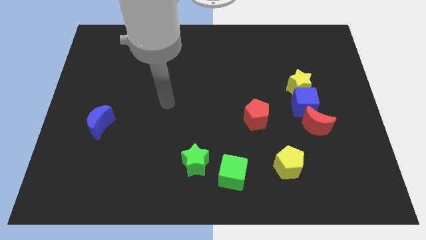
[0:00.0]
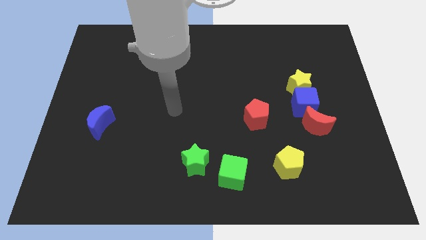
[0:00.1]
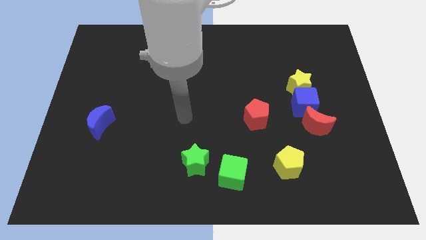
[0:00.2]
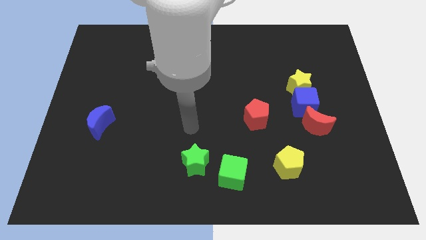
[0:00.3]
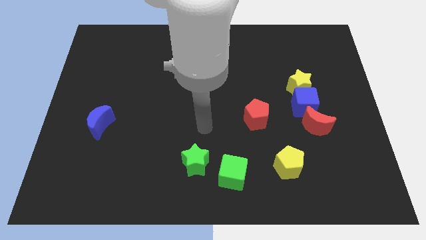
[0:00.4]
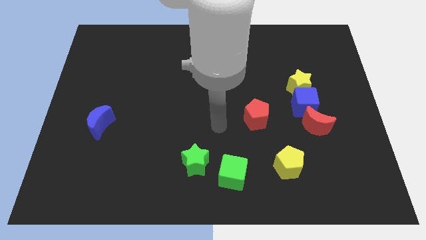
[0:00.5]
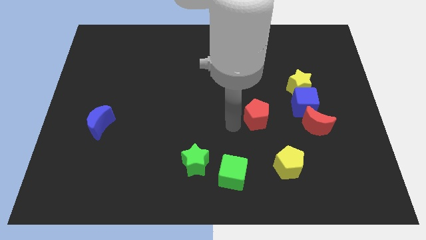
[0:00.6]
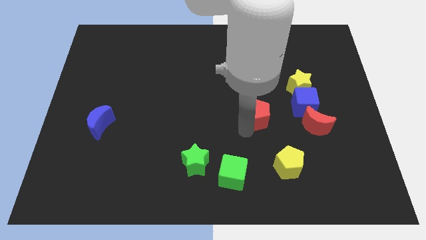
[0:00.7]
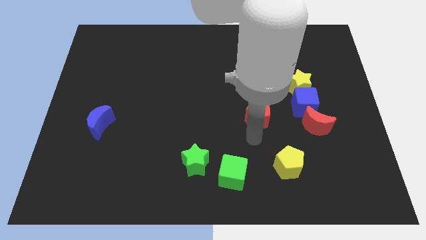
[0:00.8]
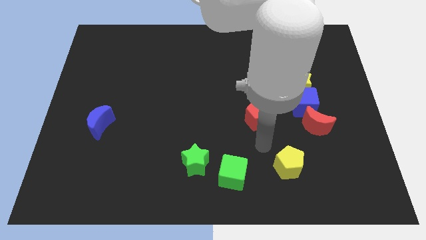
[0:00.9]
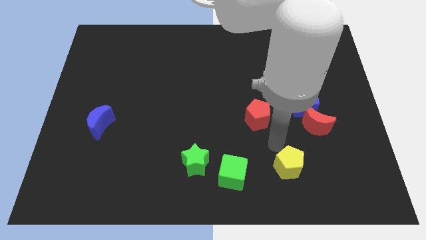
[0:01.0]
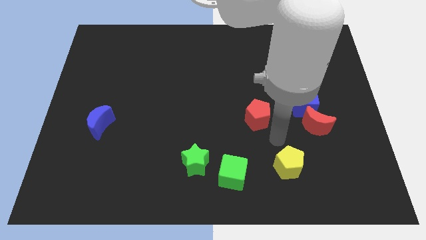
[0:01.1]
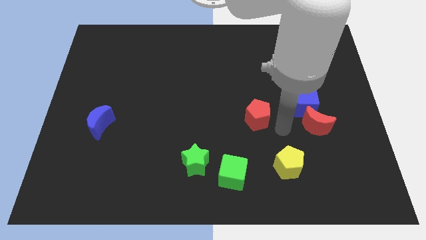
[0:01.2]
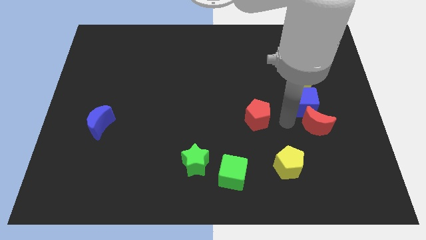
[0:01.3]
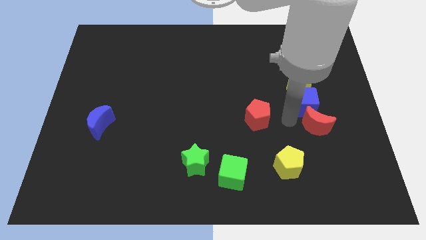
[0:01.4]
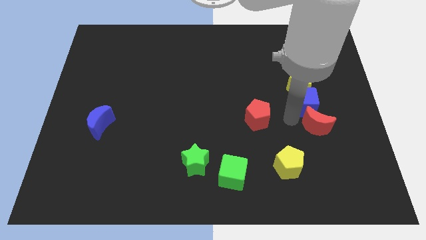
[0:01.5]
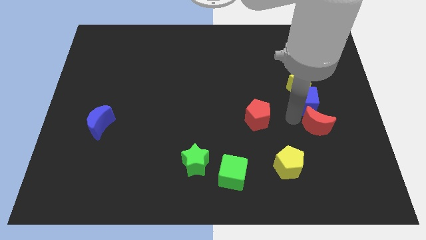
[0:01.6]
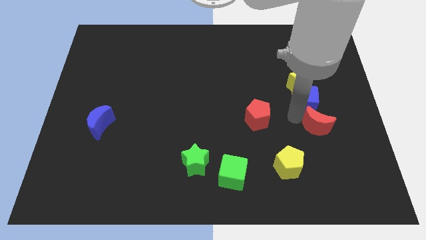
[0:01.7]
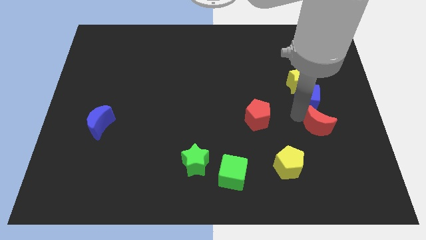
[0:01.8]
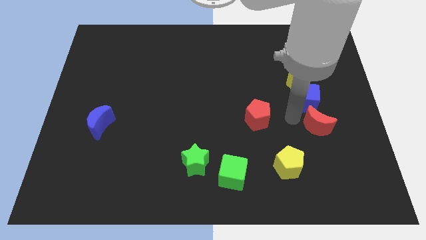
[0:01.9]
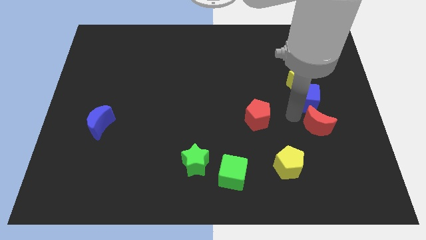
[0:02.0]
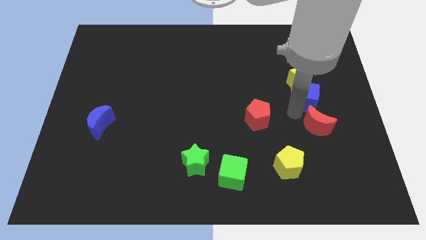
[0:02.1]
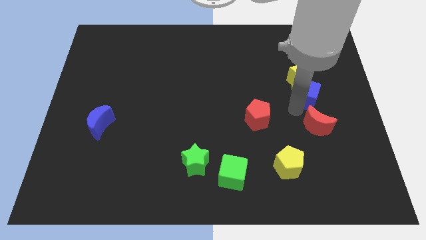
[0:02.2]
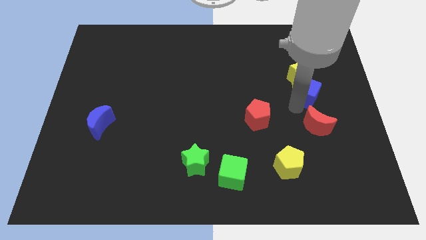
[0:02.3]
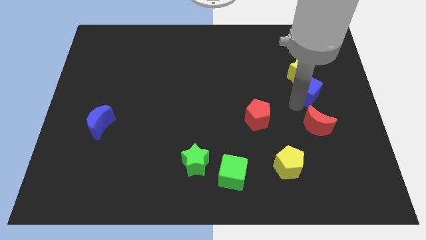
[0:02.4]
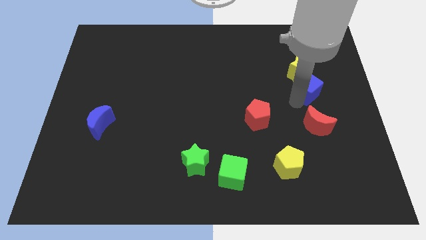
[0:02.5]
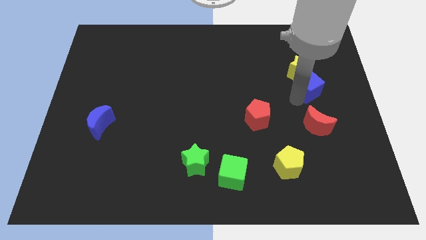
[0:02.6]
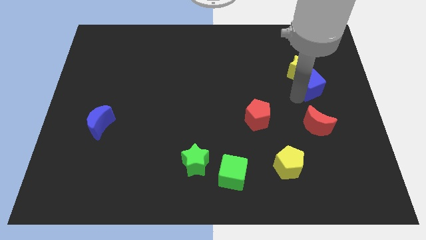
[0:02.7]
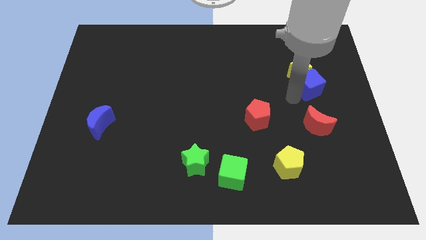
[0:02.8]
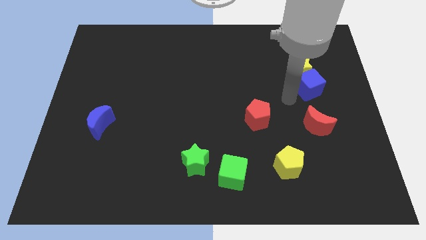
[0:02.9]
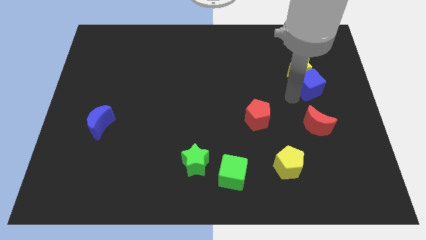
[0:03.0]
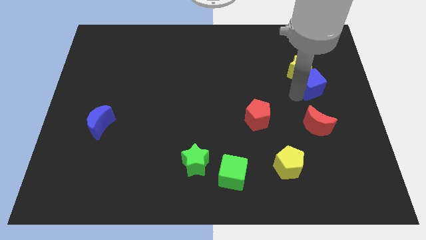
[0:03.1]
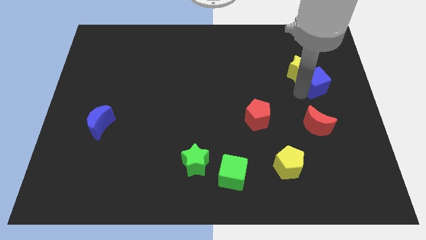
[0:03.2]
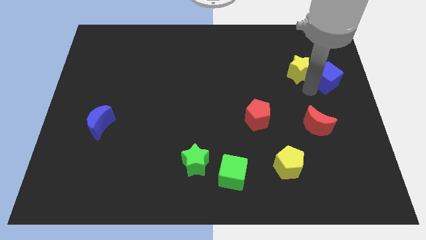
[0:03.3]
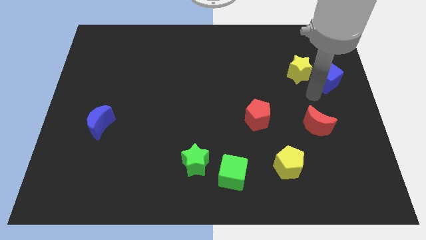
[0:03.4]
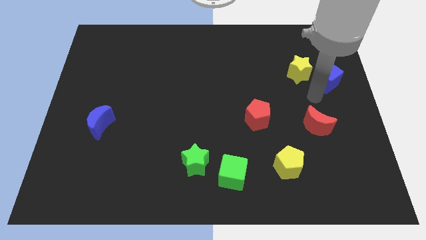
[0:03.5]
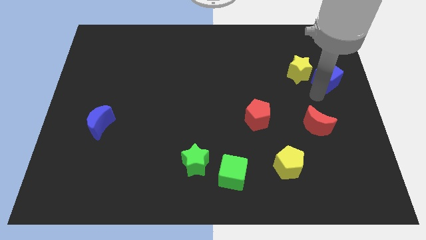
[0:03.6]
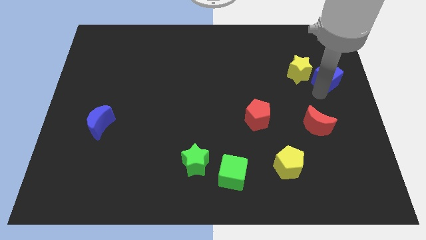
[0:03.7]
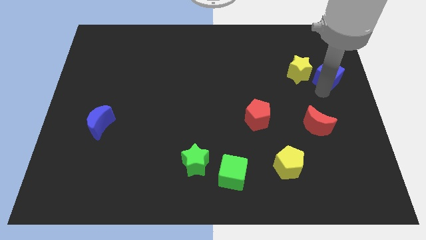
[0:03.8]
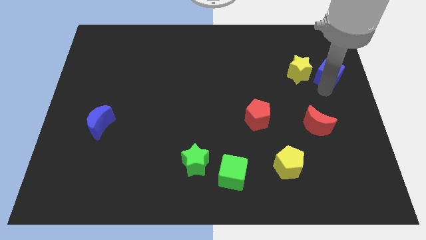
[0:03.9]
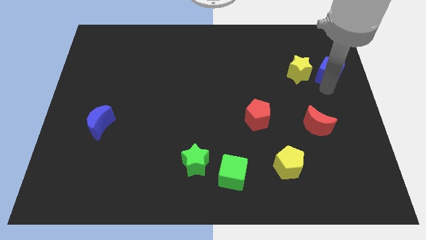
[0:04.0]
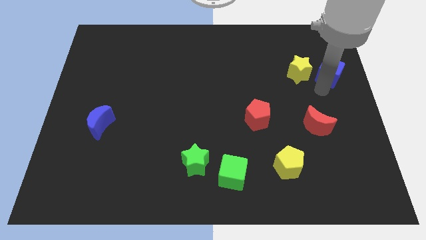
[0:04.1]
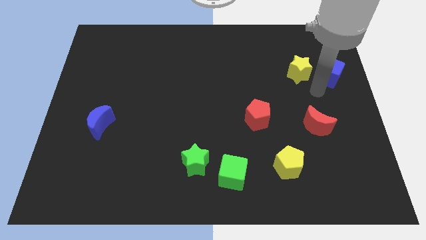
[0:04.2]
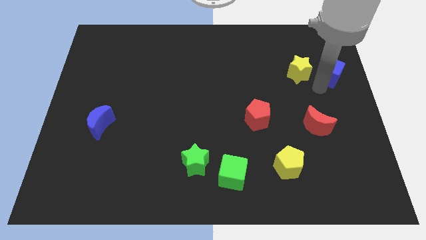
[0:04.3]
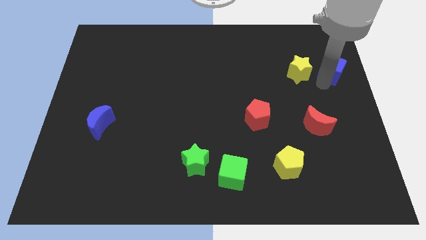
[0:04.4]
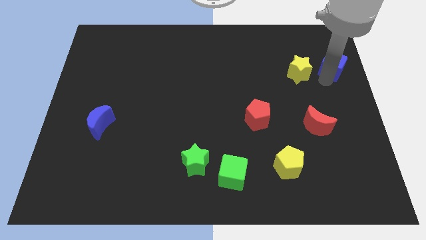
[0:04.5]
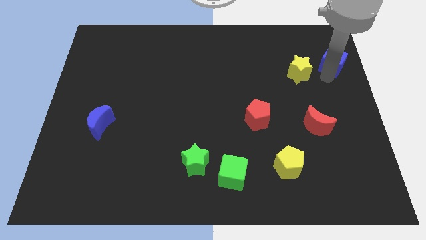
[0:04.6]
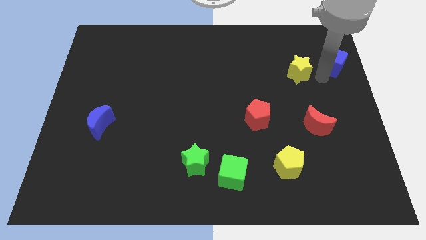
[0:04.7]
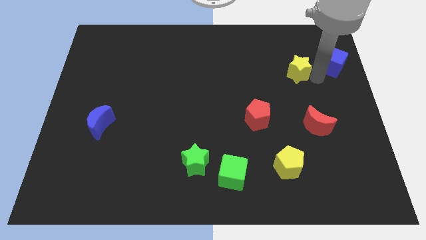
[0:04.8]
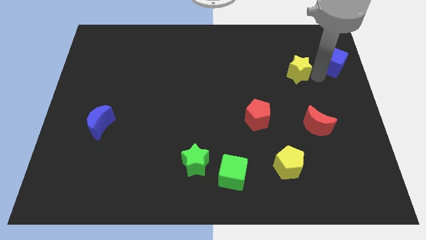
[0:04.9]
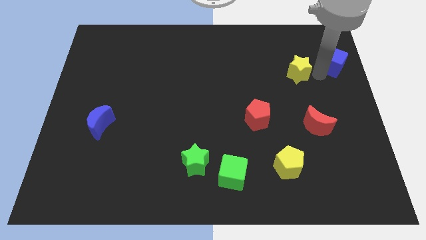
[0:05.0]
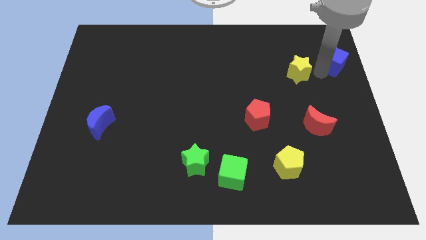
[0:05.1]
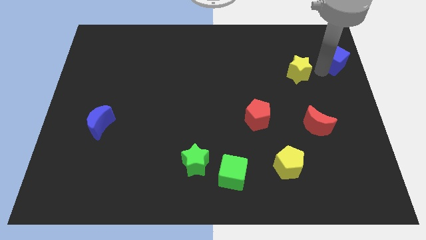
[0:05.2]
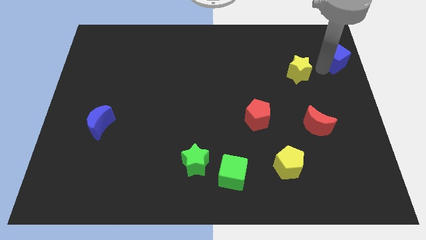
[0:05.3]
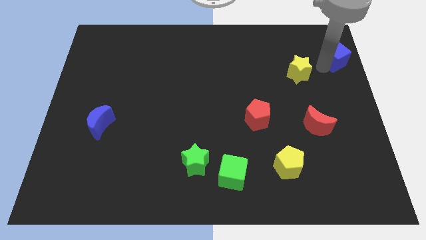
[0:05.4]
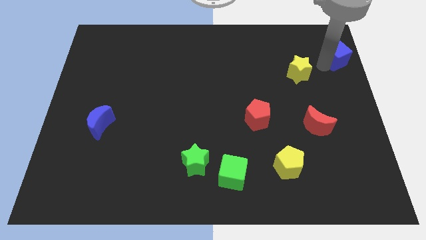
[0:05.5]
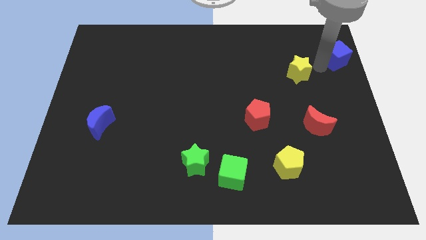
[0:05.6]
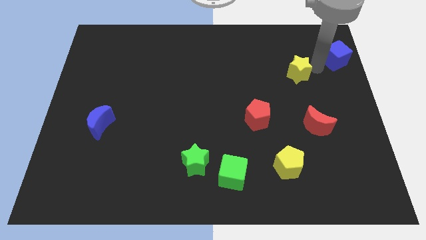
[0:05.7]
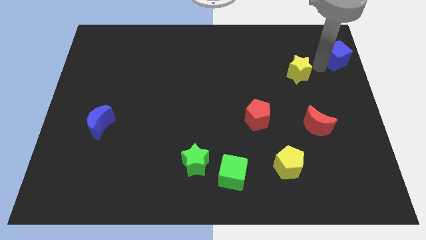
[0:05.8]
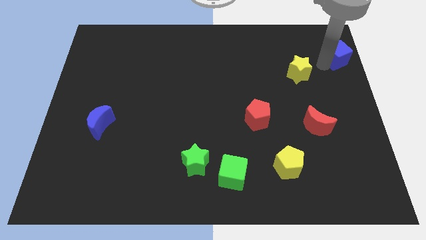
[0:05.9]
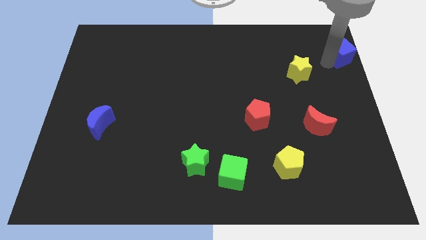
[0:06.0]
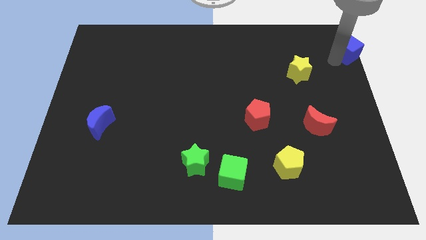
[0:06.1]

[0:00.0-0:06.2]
put the blue cube to the top right of the board

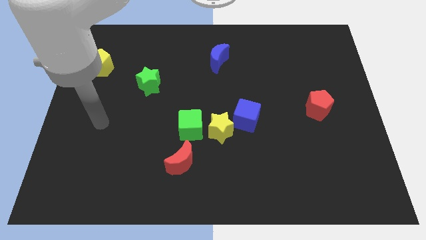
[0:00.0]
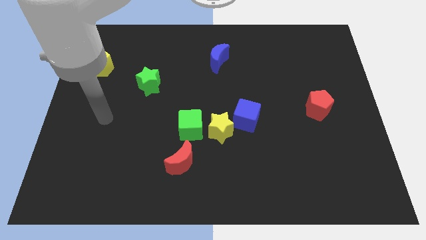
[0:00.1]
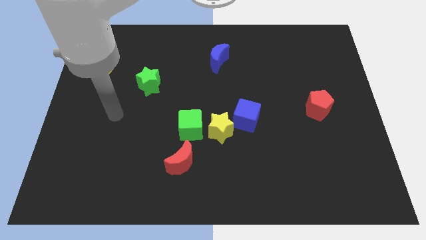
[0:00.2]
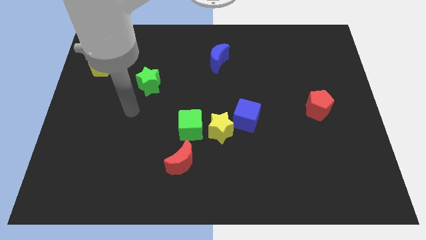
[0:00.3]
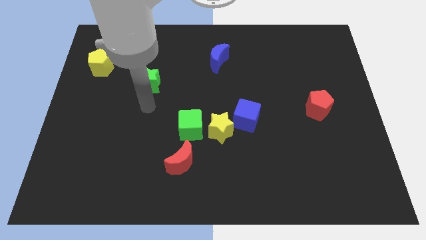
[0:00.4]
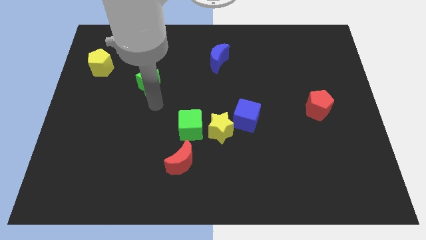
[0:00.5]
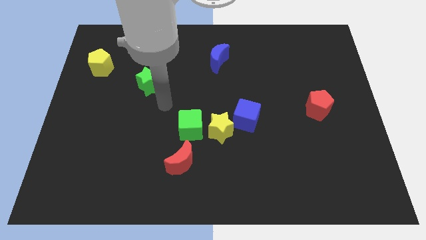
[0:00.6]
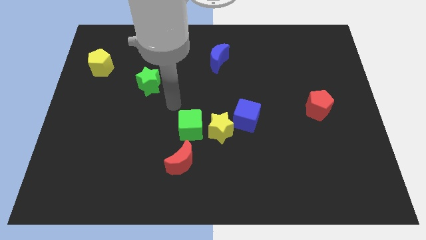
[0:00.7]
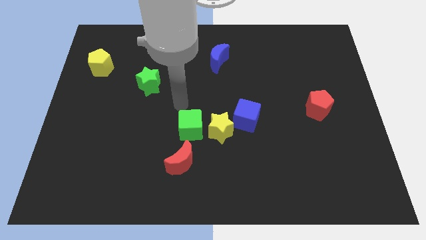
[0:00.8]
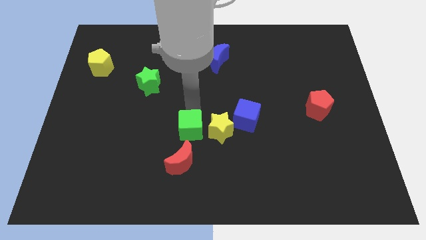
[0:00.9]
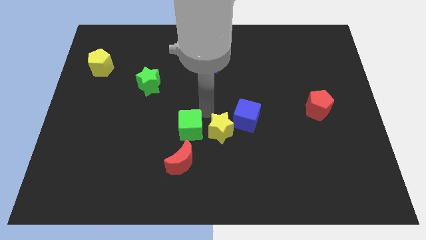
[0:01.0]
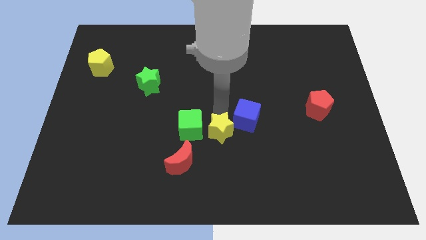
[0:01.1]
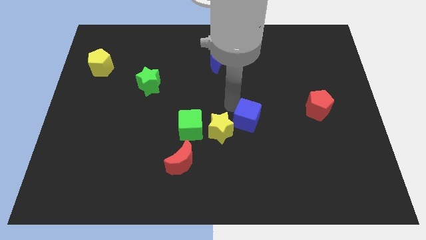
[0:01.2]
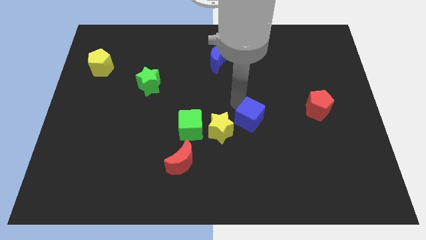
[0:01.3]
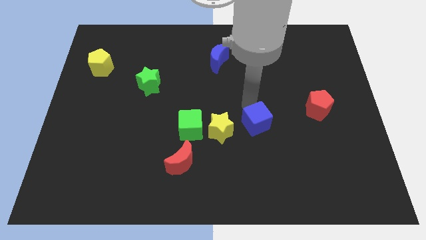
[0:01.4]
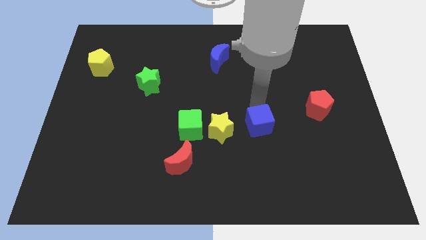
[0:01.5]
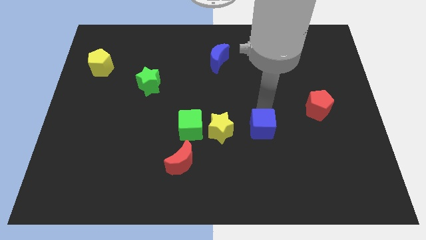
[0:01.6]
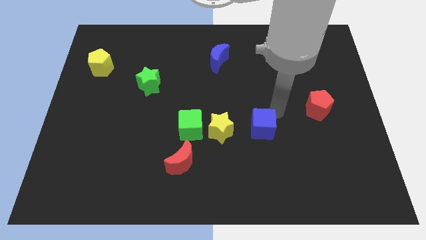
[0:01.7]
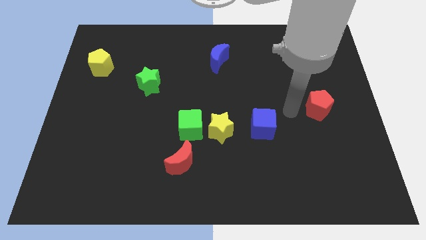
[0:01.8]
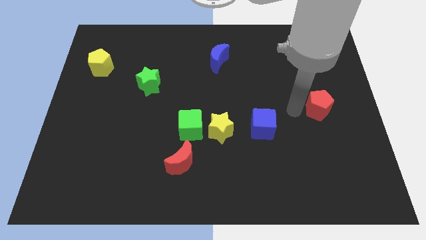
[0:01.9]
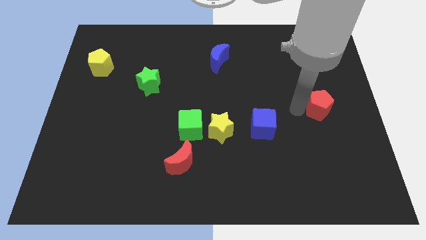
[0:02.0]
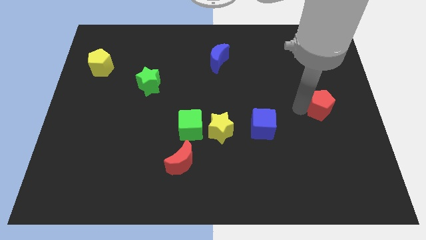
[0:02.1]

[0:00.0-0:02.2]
slide the red pentagon to the right side
